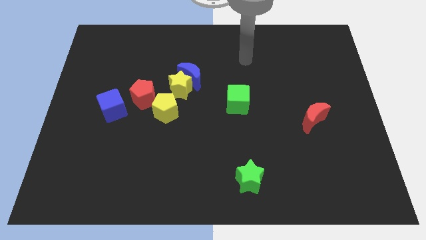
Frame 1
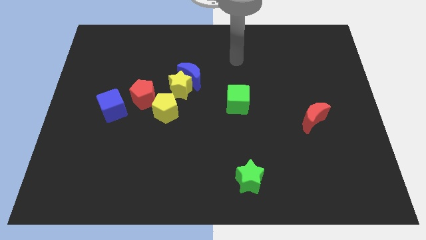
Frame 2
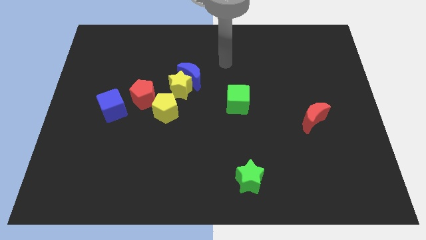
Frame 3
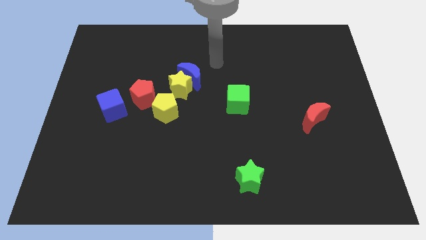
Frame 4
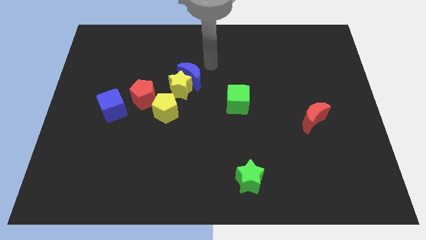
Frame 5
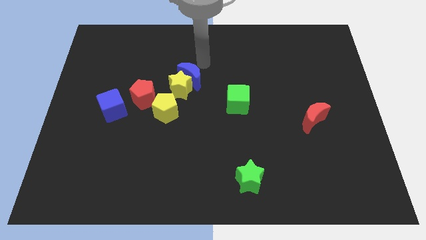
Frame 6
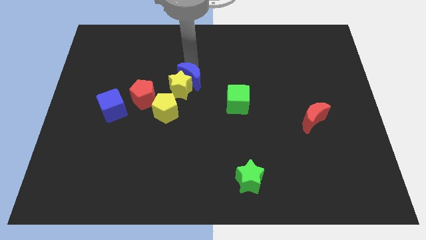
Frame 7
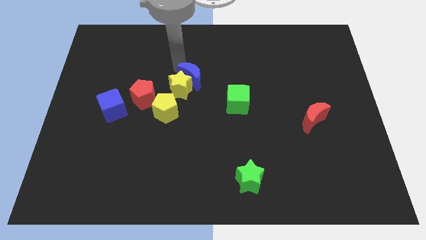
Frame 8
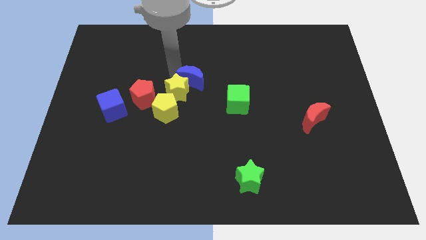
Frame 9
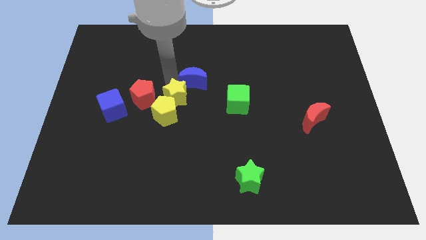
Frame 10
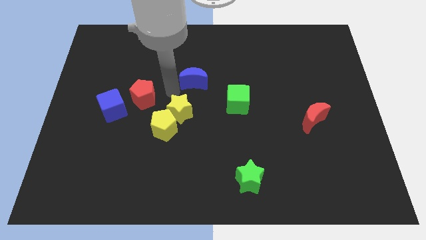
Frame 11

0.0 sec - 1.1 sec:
separate the blue moon from the yellow star

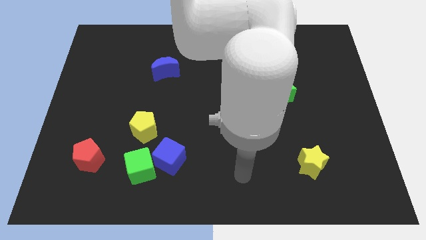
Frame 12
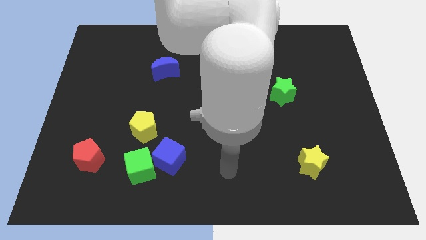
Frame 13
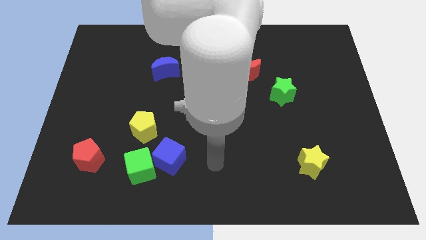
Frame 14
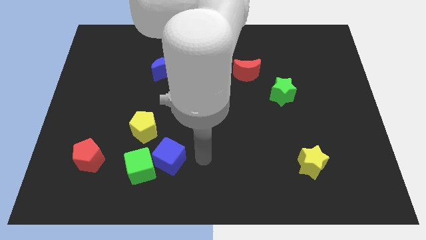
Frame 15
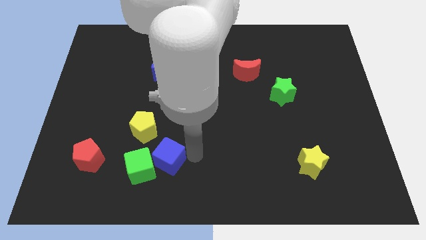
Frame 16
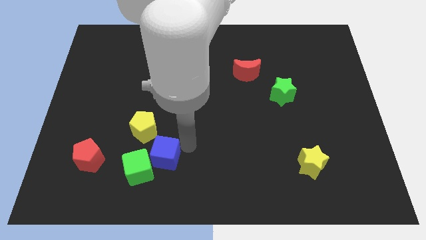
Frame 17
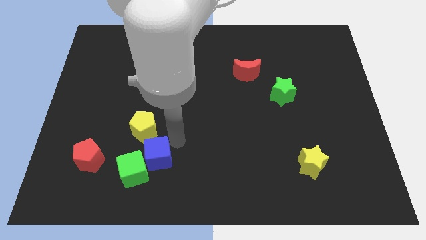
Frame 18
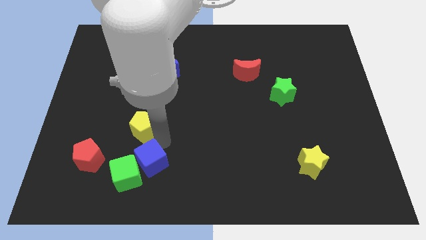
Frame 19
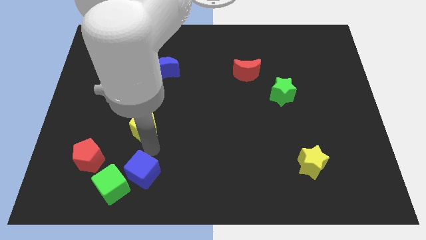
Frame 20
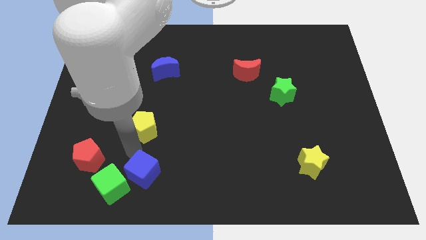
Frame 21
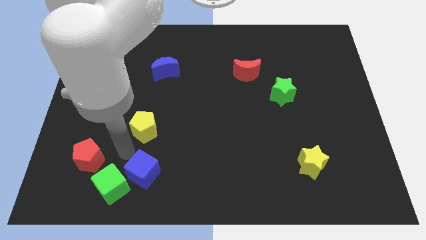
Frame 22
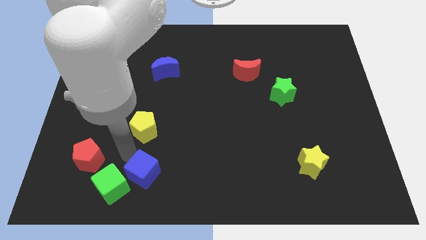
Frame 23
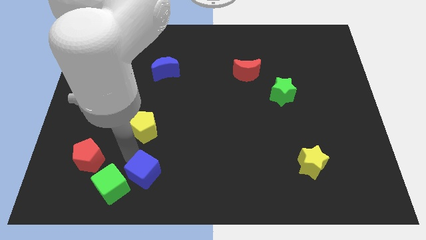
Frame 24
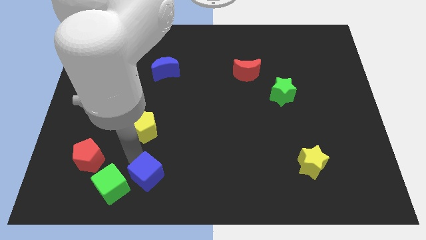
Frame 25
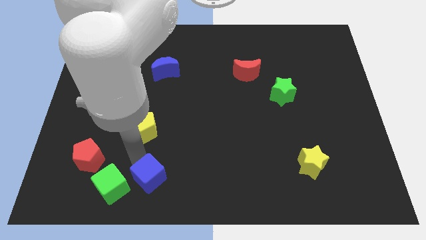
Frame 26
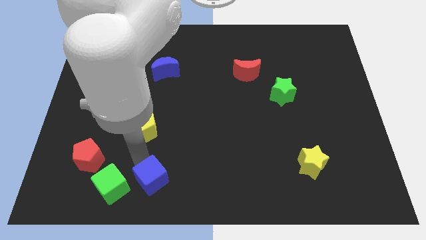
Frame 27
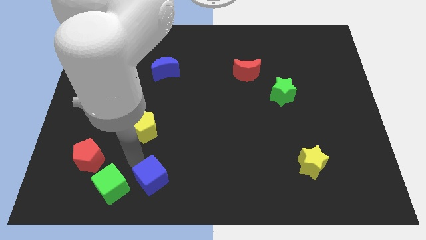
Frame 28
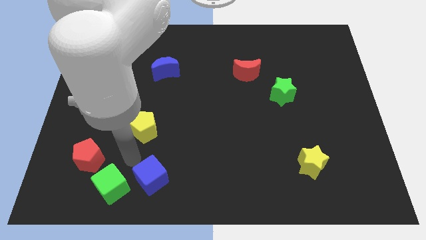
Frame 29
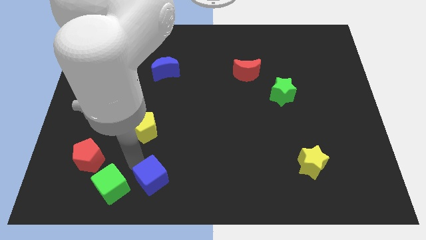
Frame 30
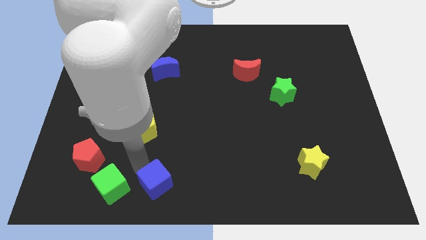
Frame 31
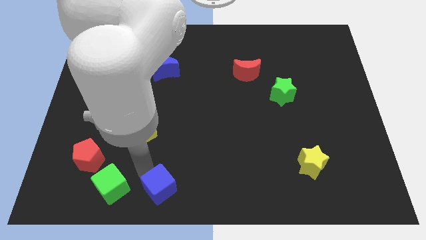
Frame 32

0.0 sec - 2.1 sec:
move the blue cube away from the green cube and yellow pentagon

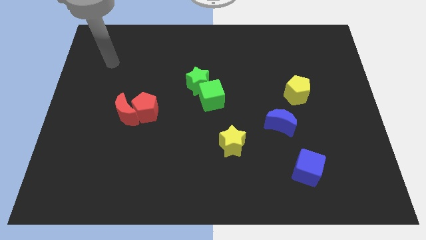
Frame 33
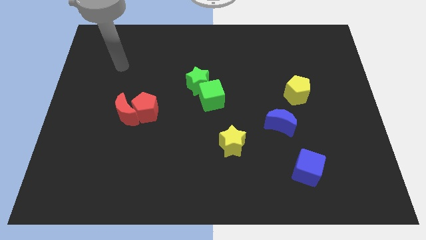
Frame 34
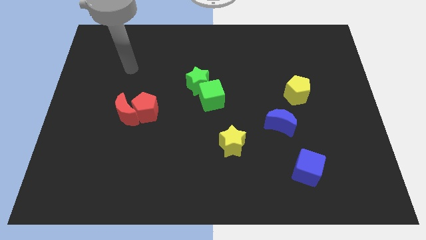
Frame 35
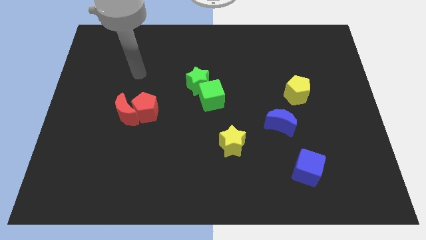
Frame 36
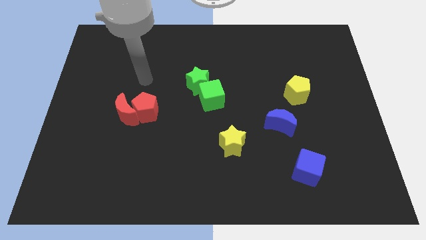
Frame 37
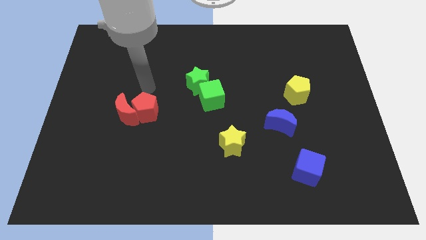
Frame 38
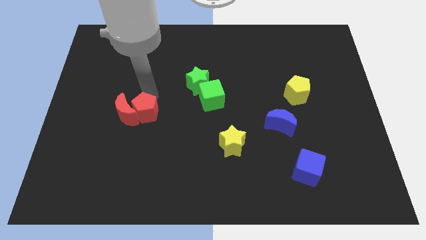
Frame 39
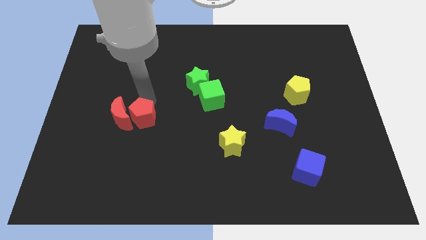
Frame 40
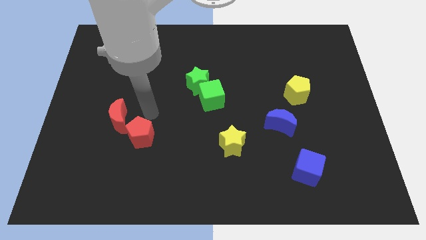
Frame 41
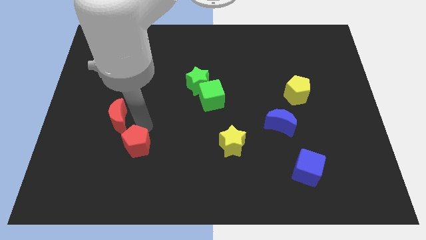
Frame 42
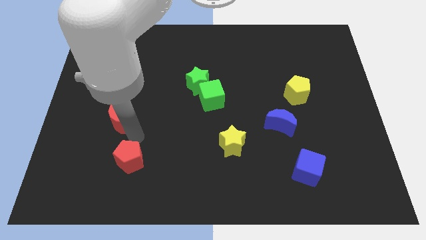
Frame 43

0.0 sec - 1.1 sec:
move the red moon away from the red pentagon

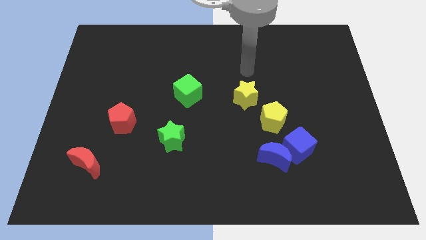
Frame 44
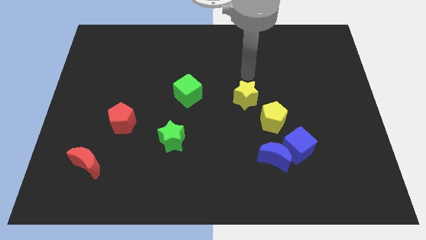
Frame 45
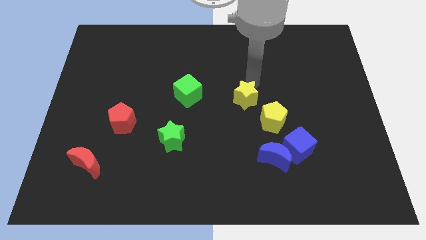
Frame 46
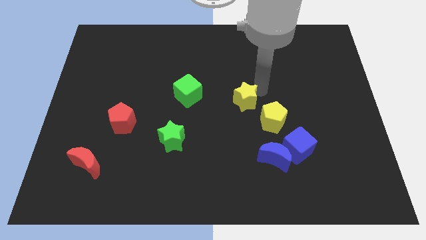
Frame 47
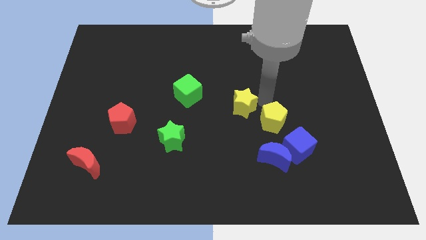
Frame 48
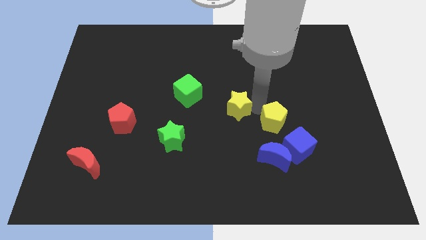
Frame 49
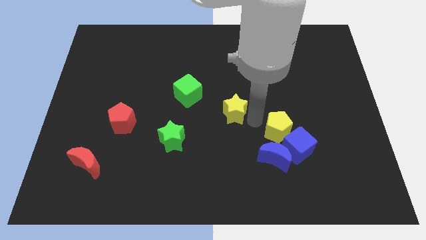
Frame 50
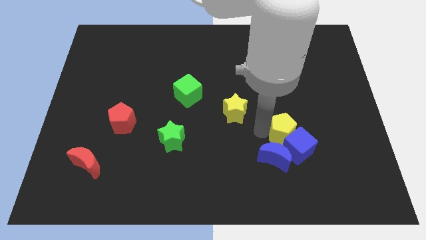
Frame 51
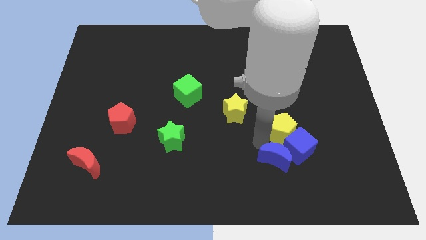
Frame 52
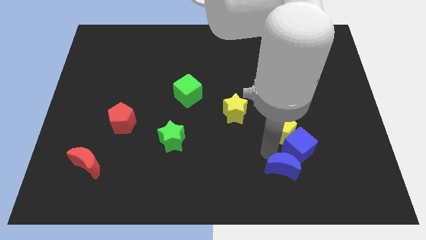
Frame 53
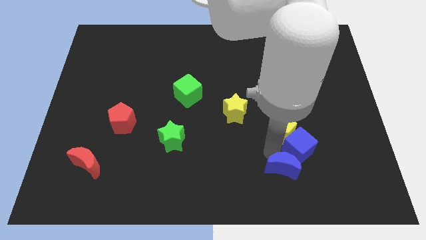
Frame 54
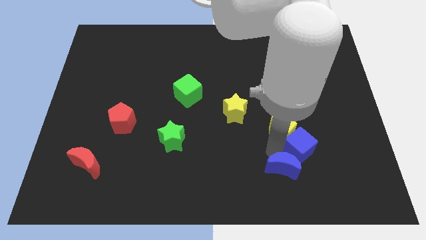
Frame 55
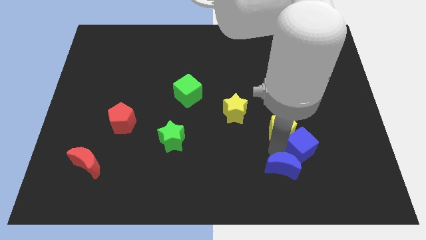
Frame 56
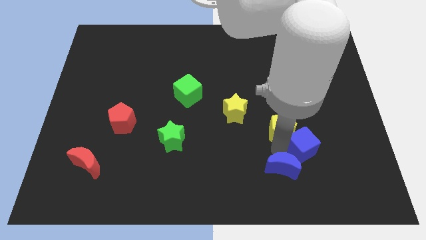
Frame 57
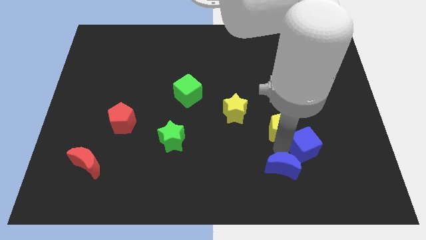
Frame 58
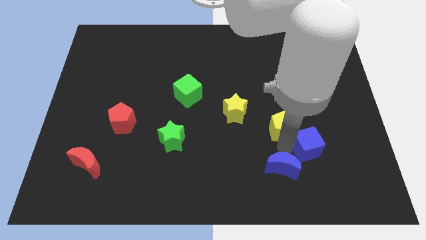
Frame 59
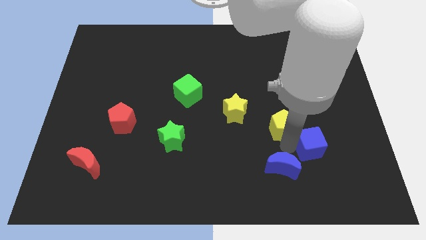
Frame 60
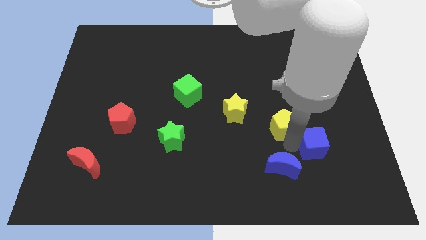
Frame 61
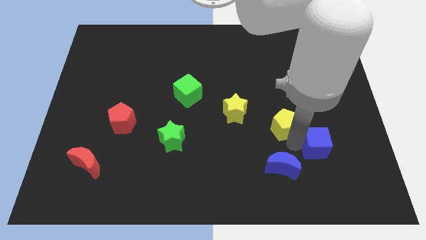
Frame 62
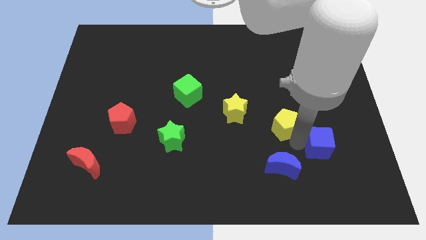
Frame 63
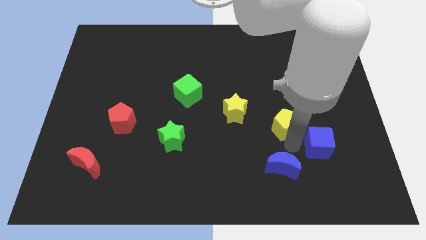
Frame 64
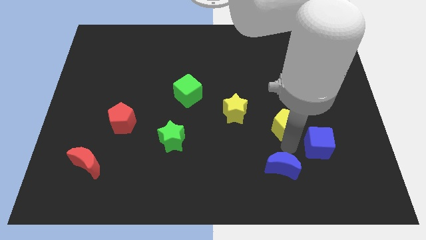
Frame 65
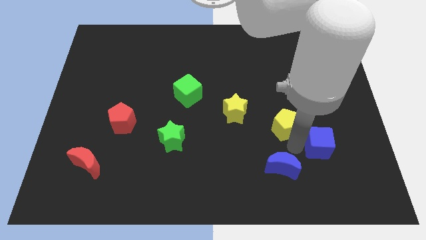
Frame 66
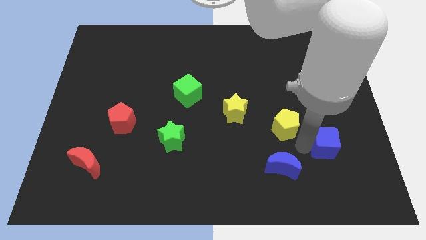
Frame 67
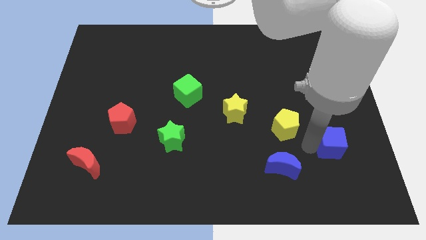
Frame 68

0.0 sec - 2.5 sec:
separate the blue cube from the blue moon and yellow pentagon

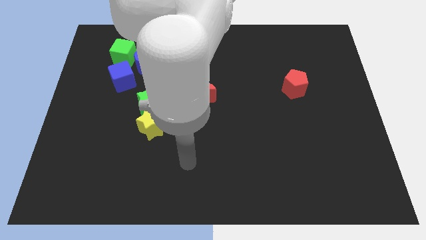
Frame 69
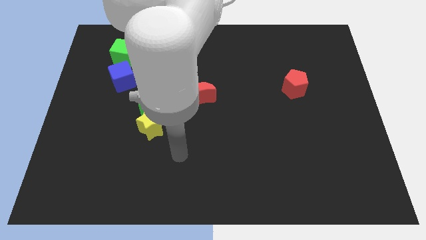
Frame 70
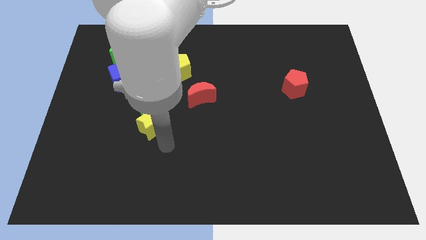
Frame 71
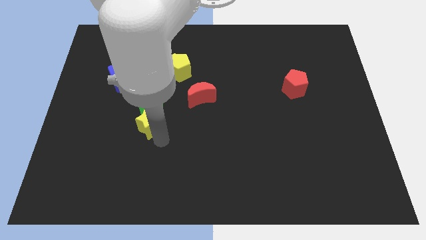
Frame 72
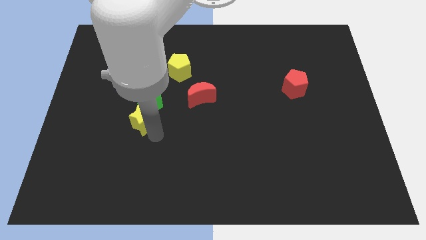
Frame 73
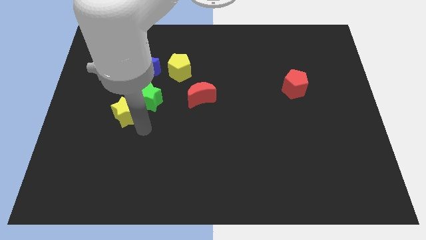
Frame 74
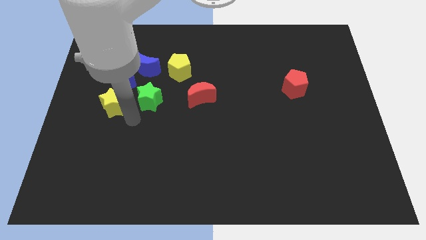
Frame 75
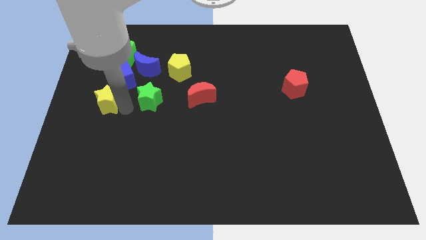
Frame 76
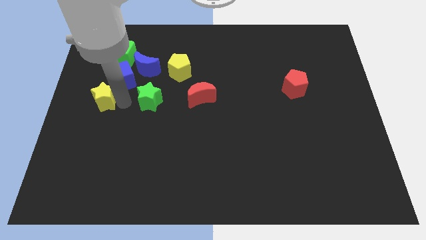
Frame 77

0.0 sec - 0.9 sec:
pull the green star apart from the yellow star

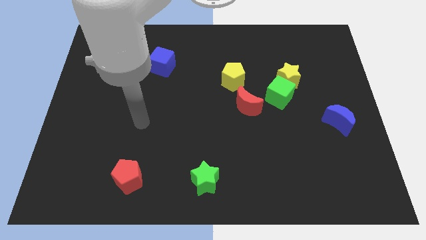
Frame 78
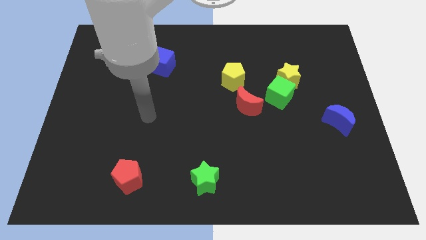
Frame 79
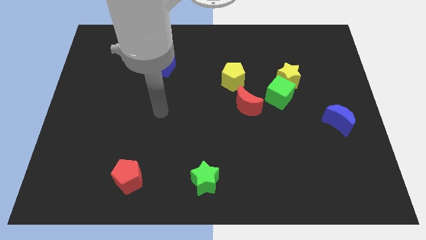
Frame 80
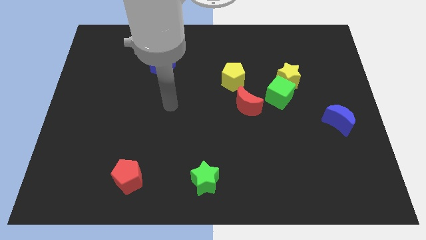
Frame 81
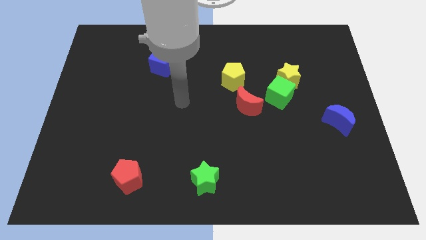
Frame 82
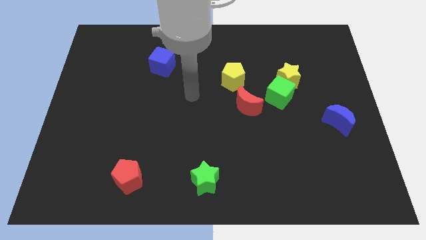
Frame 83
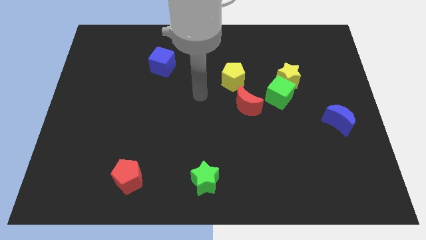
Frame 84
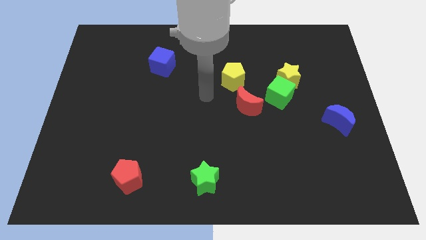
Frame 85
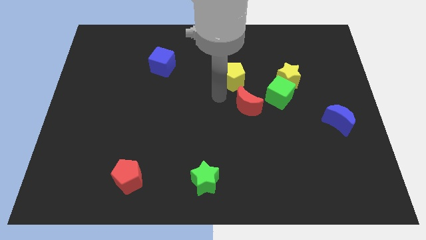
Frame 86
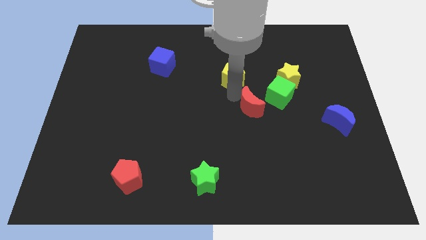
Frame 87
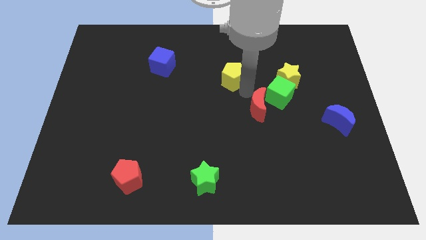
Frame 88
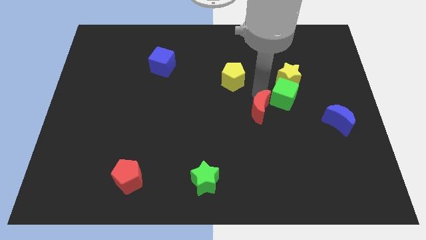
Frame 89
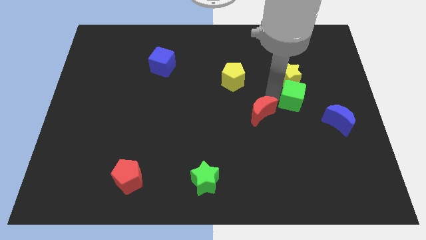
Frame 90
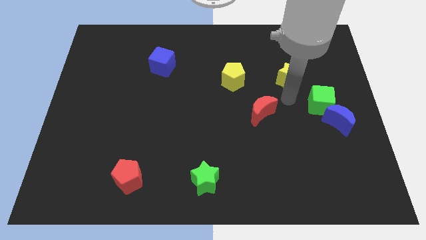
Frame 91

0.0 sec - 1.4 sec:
separate the yellow star from the green cube

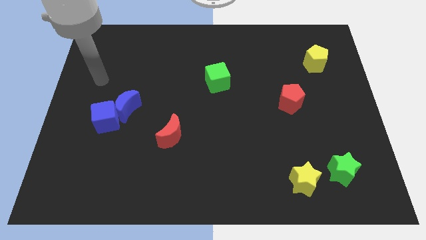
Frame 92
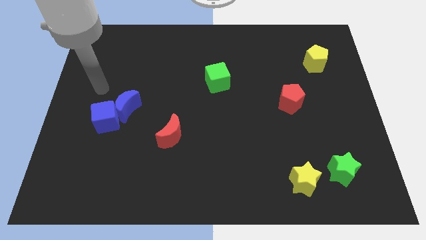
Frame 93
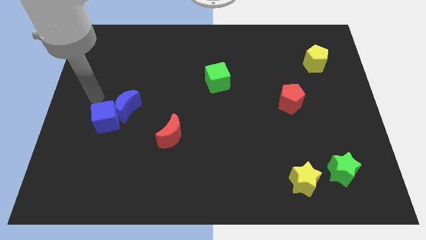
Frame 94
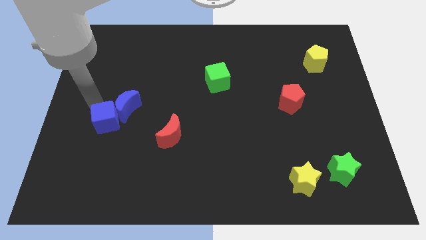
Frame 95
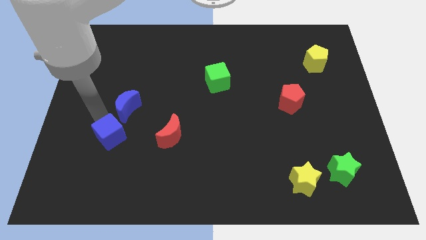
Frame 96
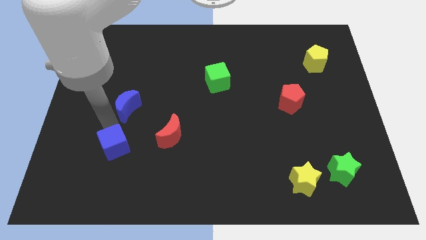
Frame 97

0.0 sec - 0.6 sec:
move the blue moon away from the blue cube
